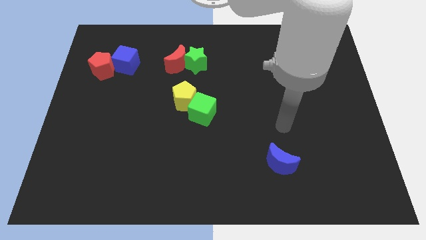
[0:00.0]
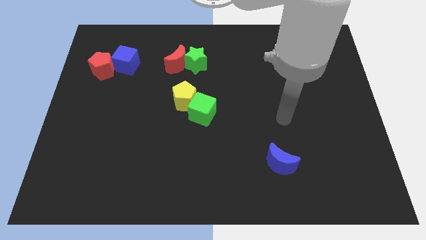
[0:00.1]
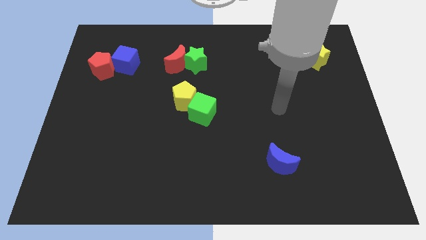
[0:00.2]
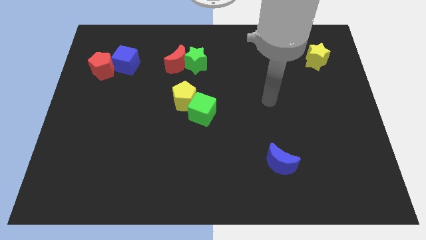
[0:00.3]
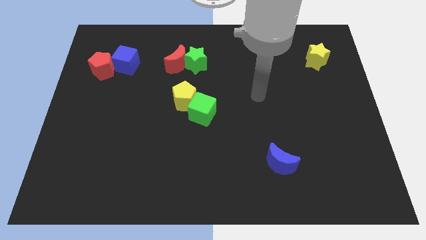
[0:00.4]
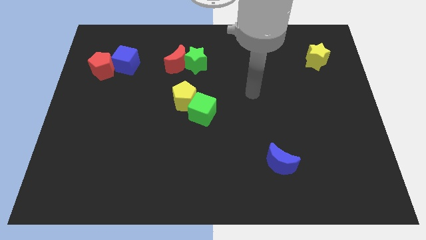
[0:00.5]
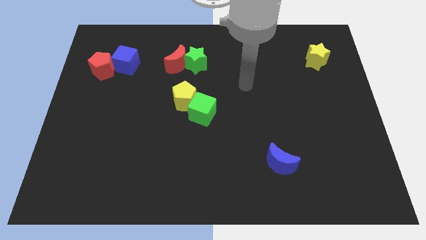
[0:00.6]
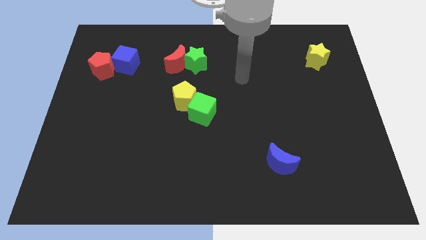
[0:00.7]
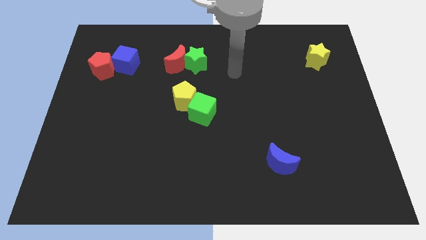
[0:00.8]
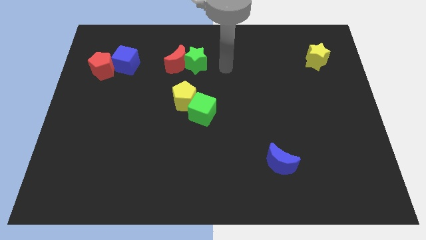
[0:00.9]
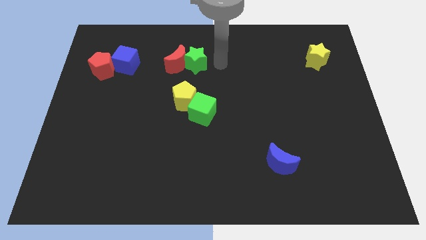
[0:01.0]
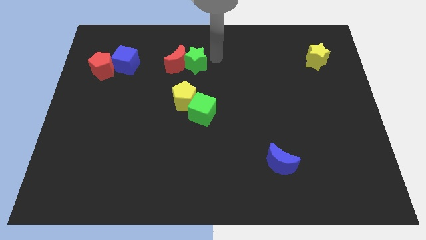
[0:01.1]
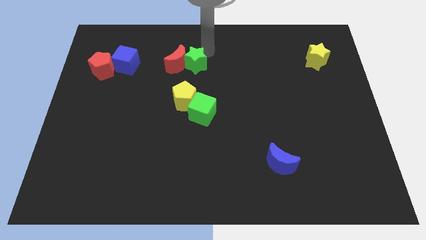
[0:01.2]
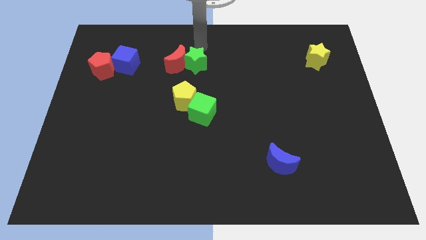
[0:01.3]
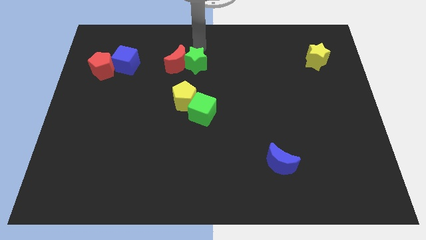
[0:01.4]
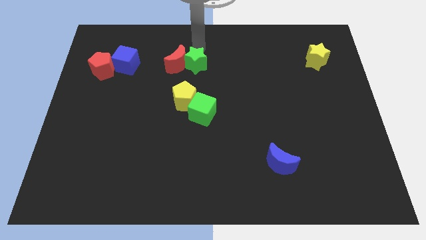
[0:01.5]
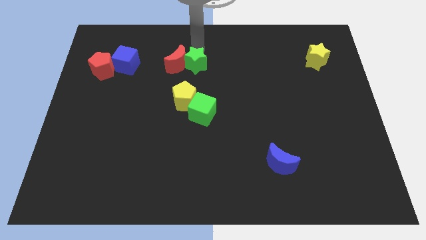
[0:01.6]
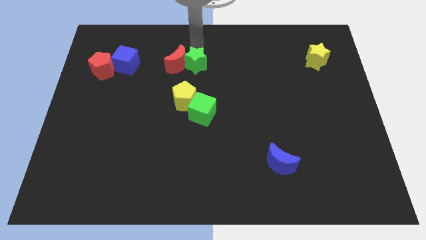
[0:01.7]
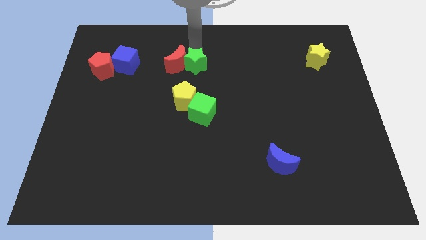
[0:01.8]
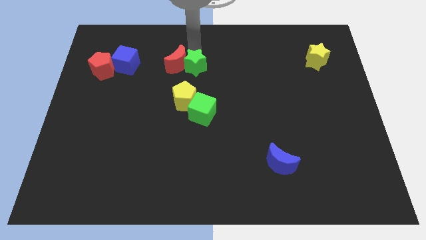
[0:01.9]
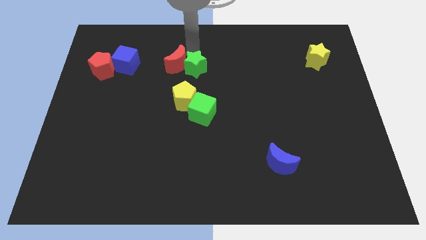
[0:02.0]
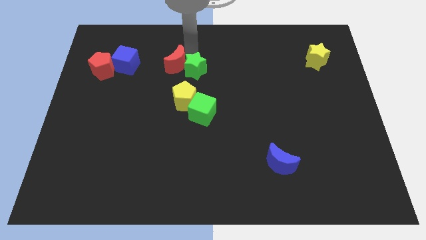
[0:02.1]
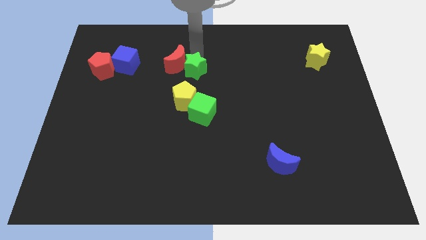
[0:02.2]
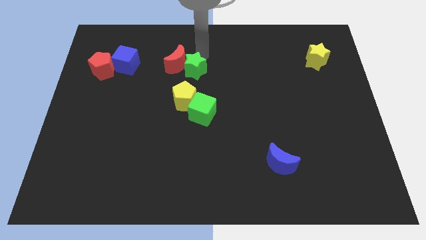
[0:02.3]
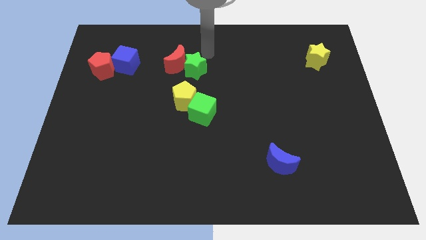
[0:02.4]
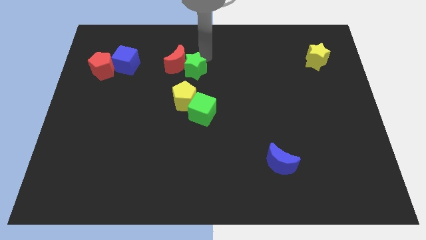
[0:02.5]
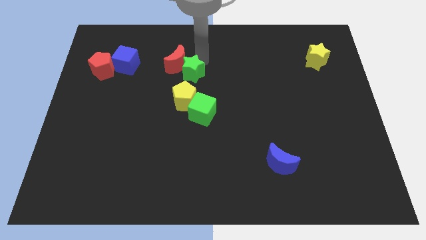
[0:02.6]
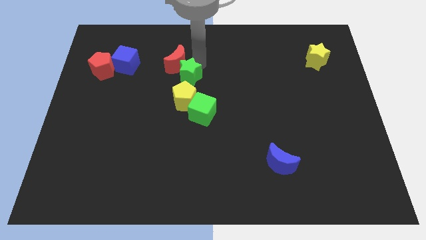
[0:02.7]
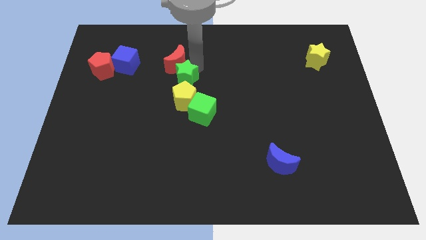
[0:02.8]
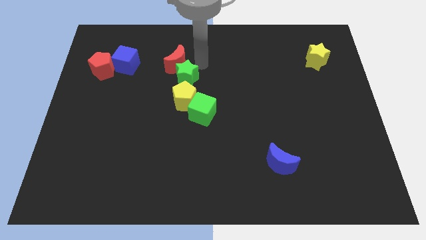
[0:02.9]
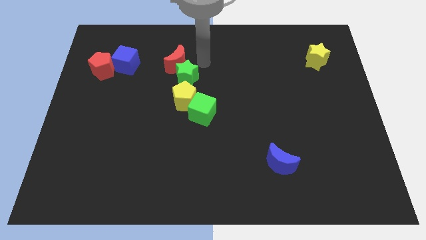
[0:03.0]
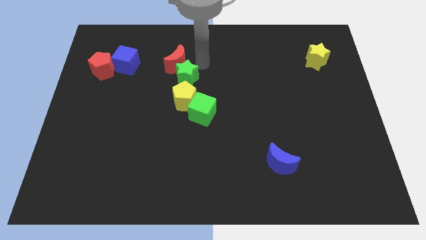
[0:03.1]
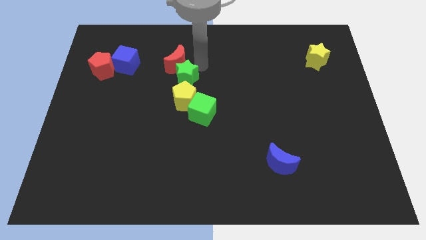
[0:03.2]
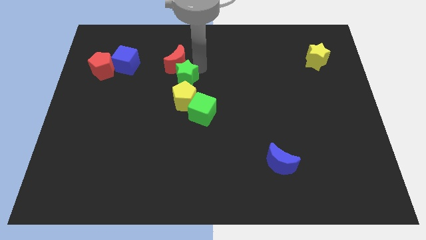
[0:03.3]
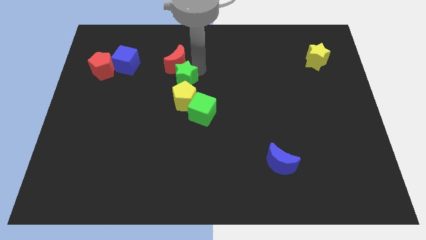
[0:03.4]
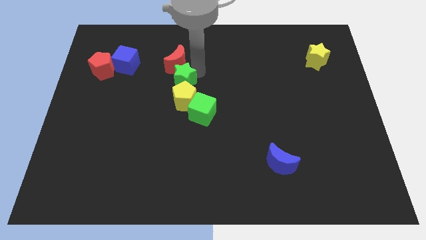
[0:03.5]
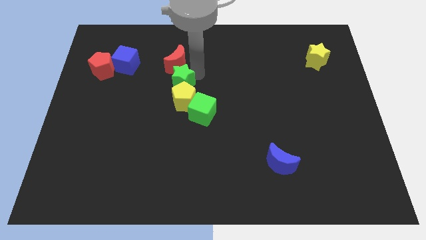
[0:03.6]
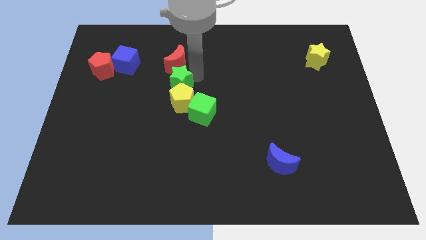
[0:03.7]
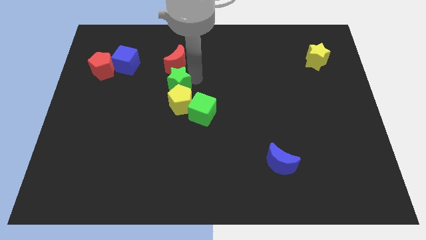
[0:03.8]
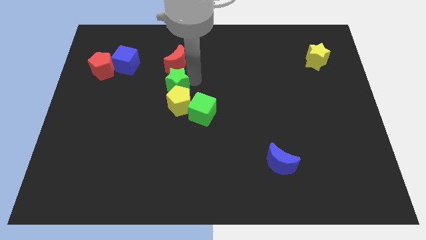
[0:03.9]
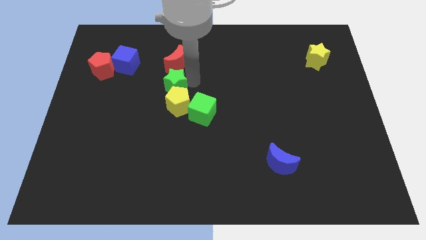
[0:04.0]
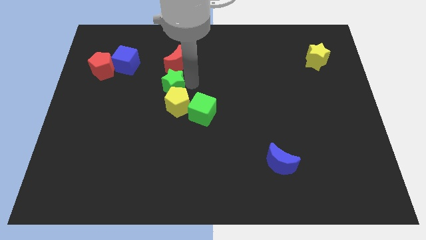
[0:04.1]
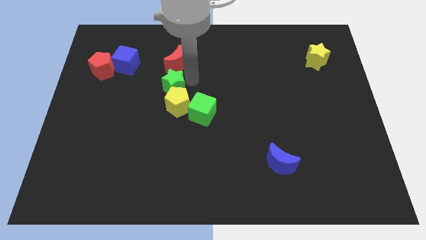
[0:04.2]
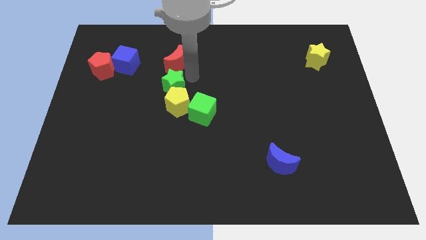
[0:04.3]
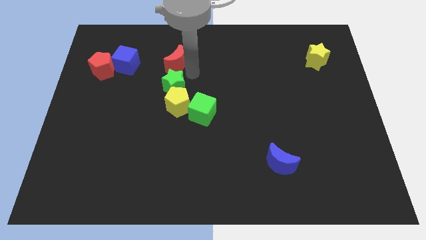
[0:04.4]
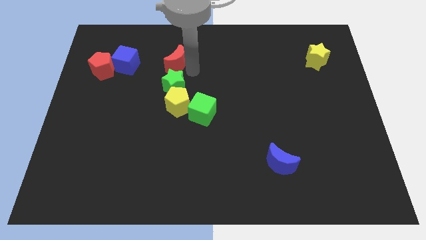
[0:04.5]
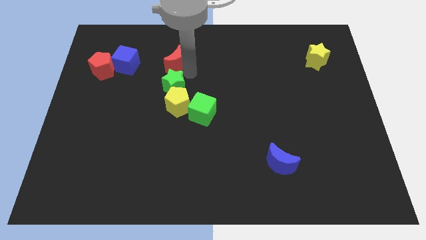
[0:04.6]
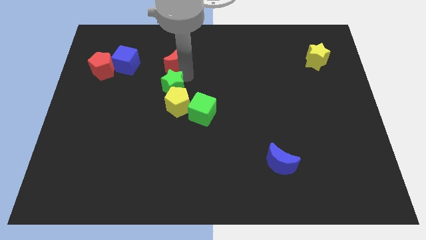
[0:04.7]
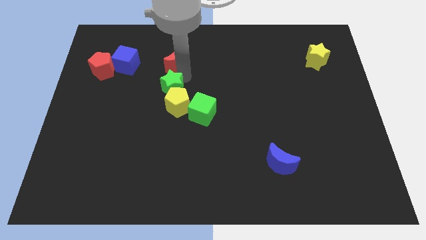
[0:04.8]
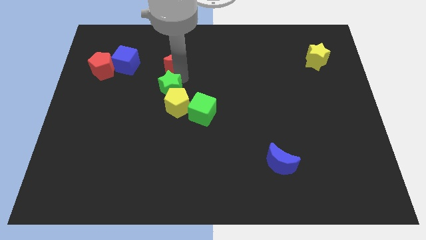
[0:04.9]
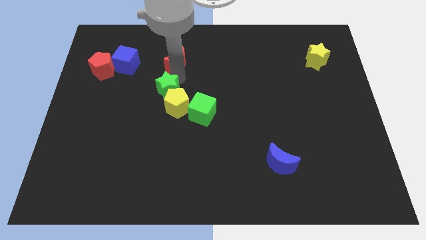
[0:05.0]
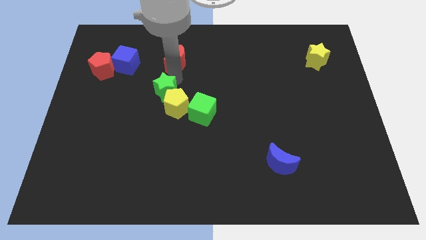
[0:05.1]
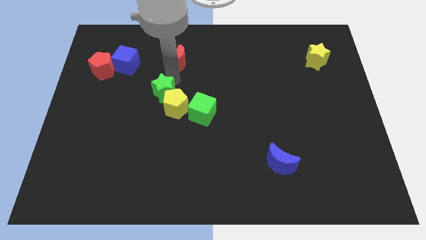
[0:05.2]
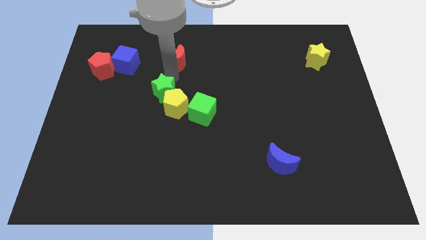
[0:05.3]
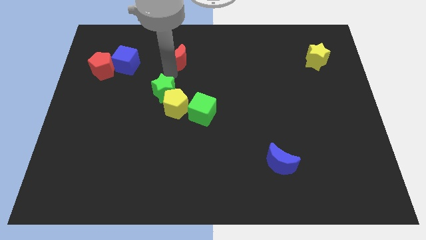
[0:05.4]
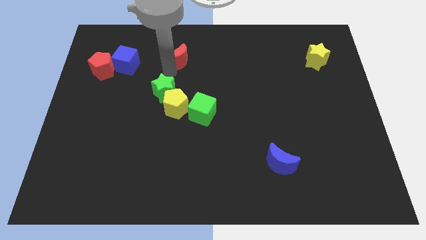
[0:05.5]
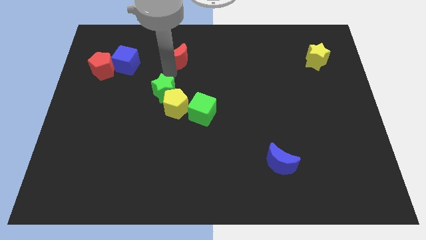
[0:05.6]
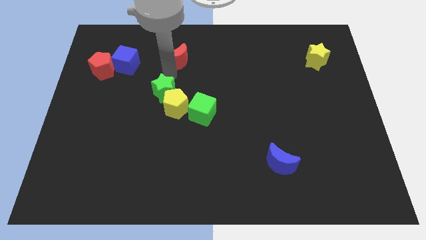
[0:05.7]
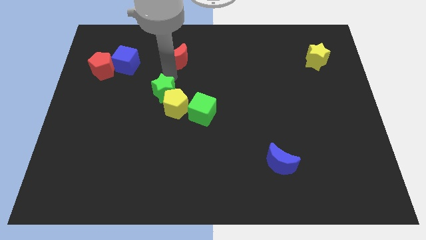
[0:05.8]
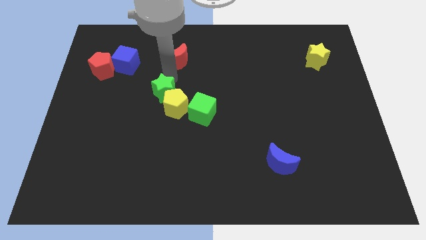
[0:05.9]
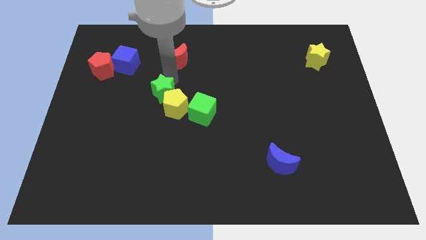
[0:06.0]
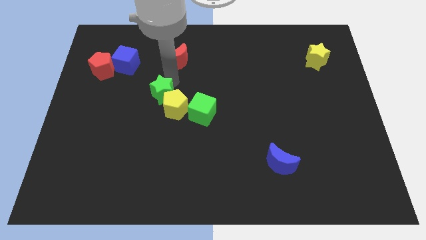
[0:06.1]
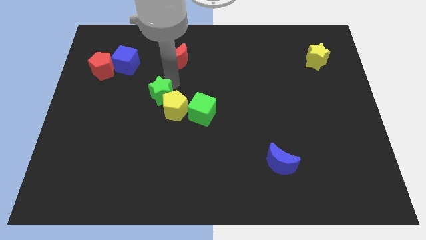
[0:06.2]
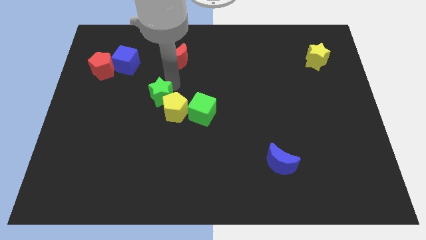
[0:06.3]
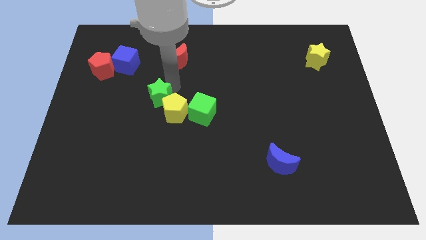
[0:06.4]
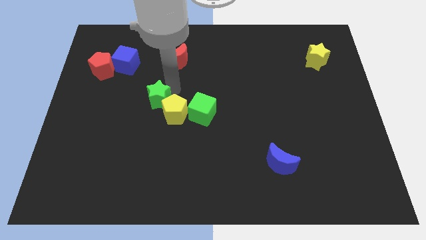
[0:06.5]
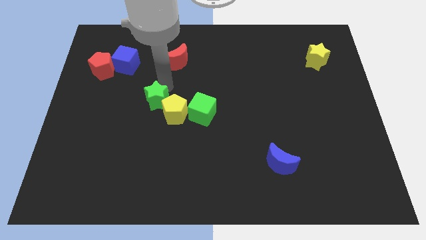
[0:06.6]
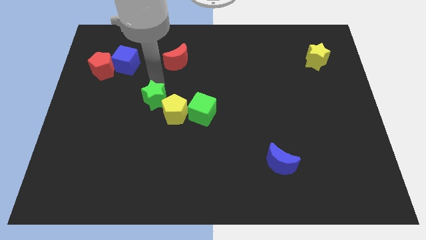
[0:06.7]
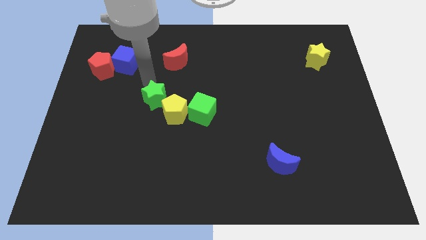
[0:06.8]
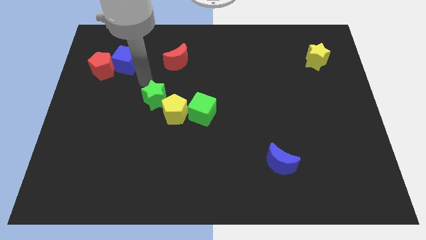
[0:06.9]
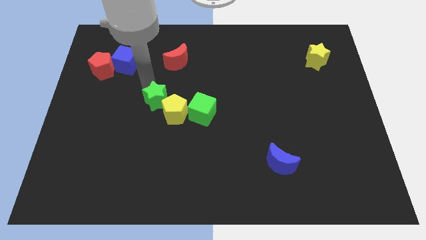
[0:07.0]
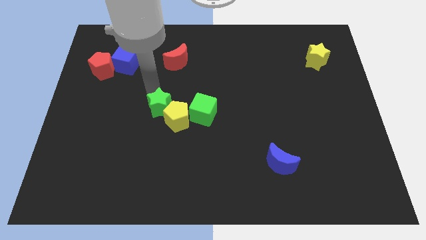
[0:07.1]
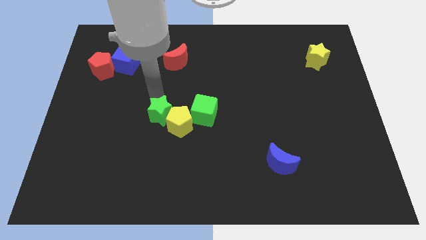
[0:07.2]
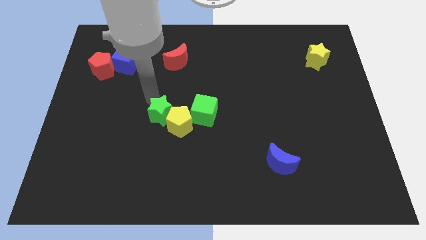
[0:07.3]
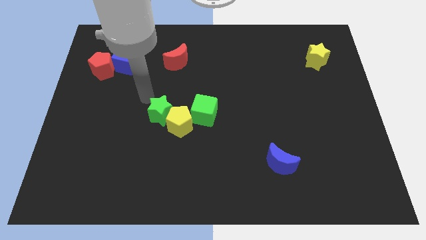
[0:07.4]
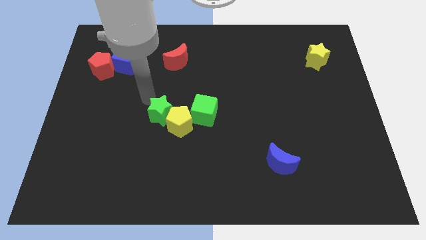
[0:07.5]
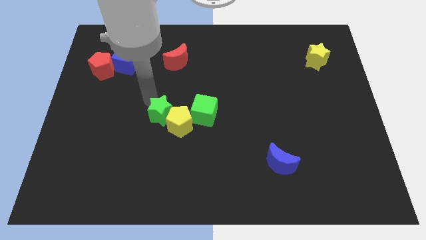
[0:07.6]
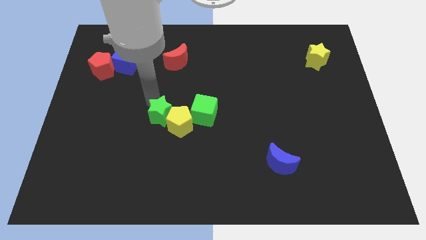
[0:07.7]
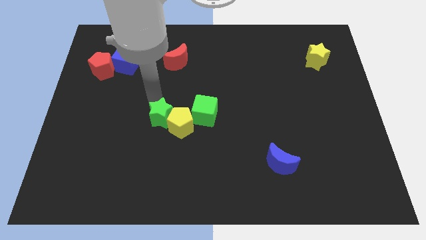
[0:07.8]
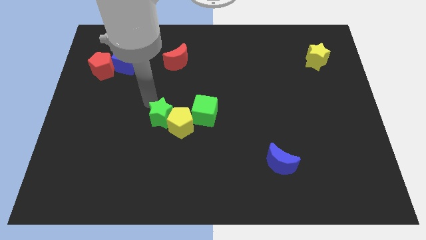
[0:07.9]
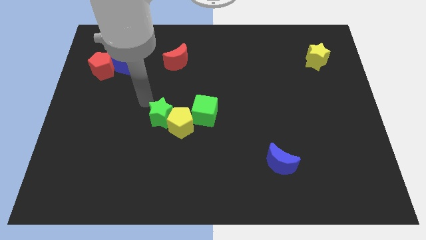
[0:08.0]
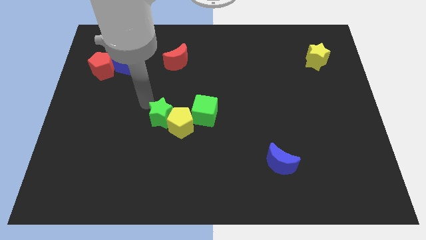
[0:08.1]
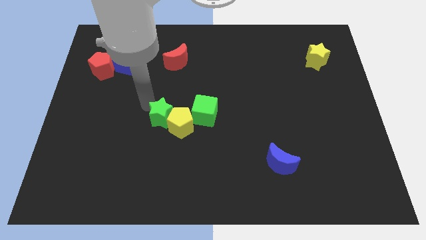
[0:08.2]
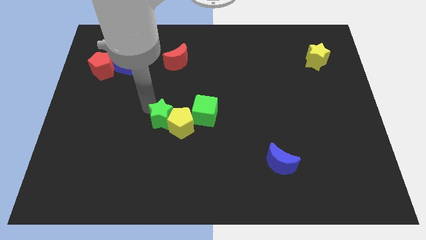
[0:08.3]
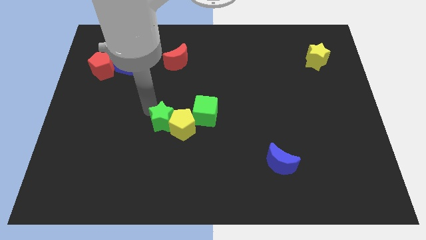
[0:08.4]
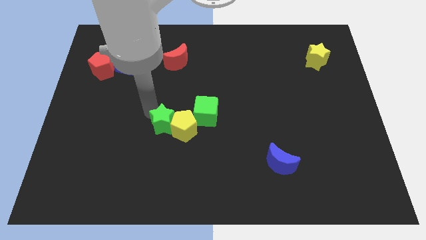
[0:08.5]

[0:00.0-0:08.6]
put the green star diagonally down and to the left of the green cube
